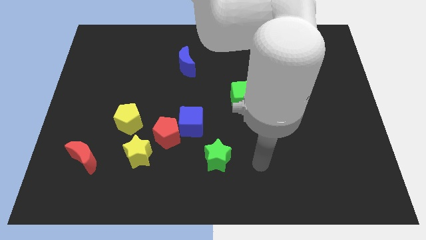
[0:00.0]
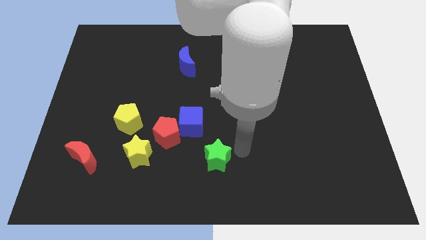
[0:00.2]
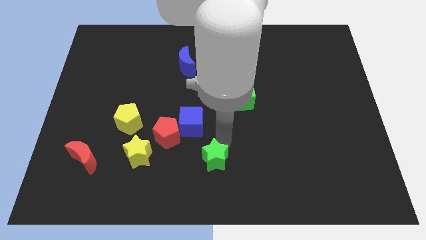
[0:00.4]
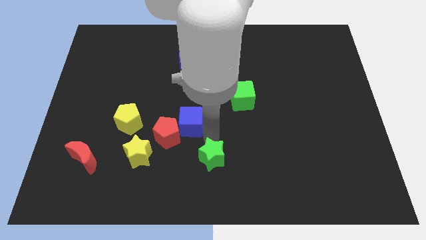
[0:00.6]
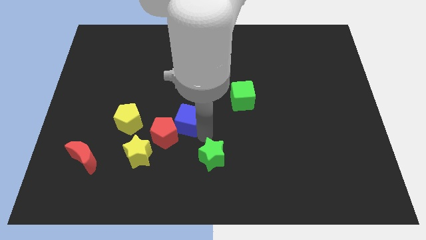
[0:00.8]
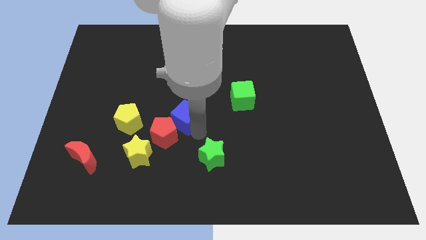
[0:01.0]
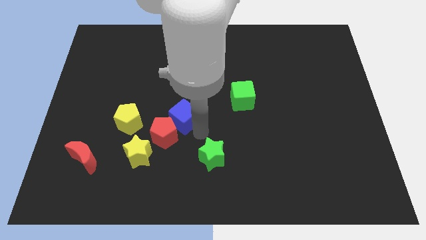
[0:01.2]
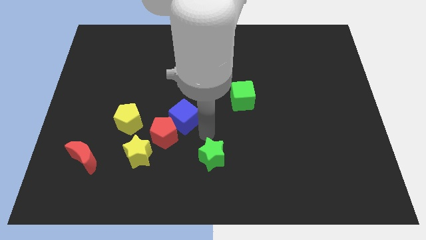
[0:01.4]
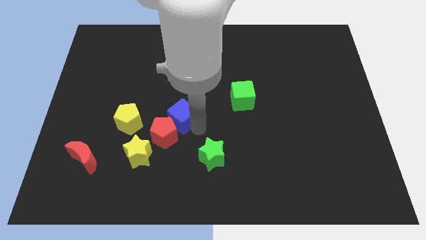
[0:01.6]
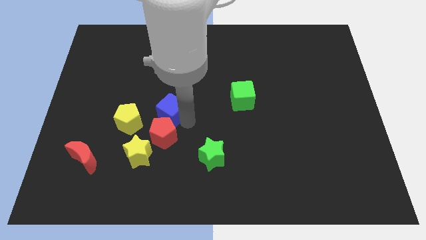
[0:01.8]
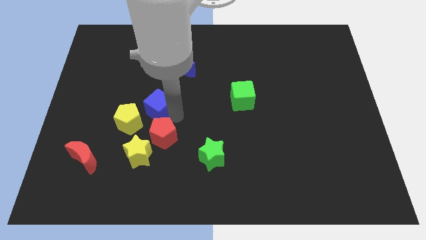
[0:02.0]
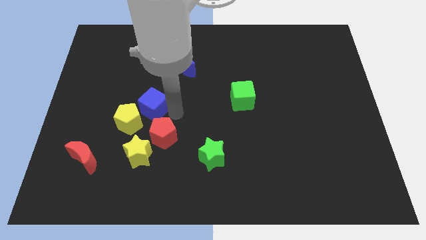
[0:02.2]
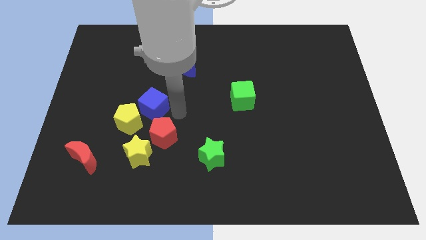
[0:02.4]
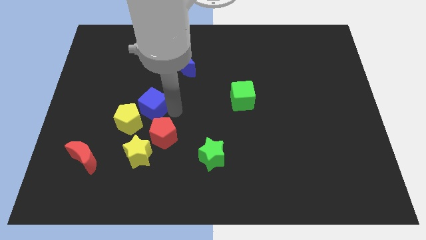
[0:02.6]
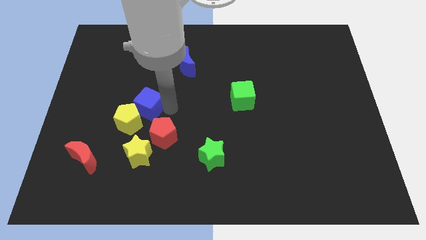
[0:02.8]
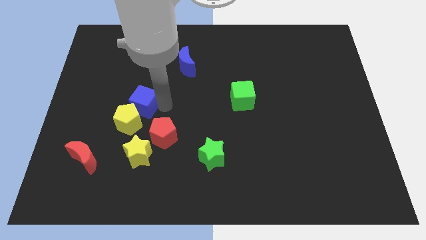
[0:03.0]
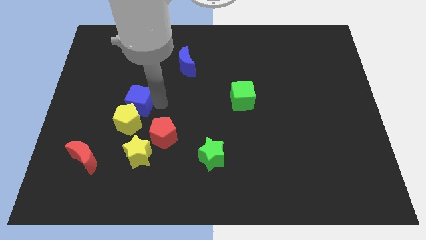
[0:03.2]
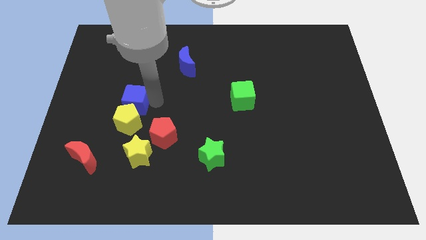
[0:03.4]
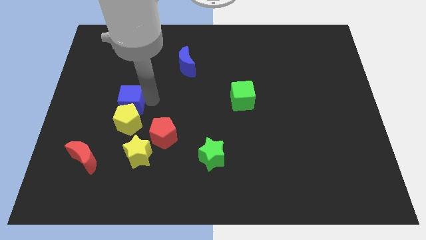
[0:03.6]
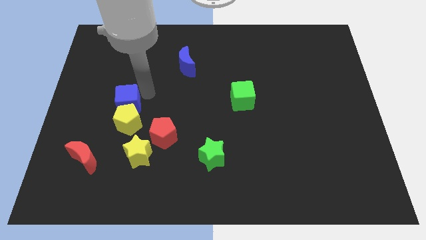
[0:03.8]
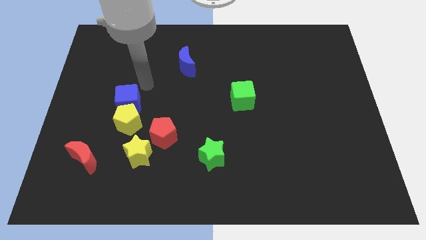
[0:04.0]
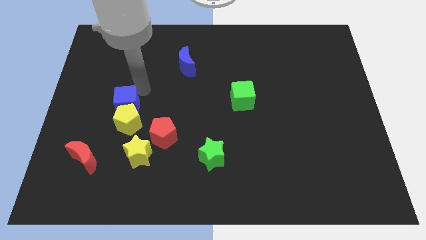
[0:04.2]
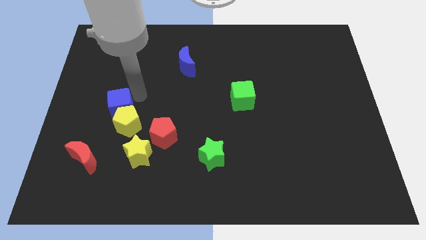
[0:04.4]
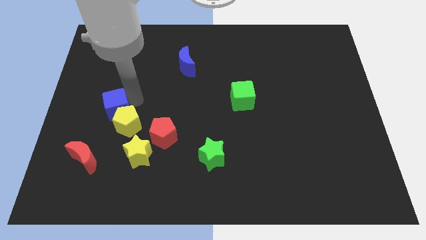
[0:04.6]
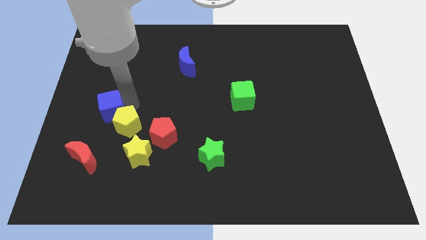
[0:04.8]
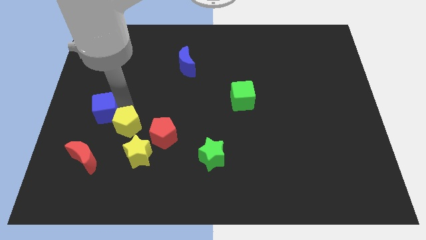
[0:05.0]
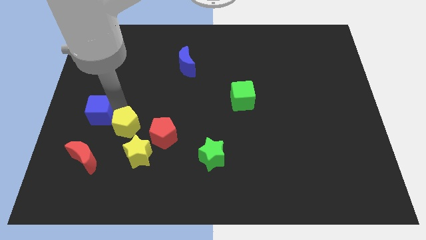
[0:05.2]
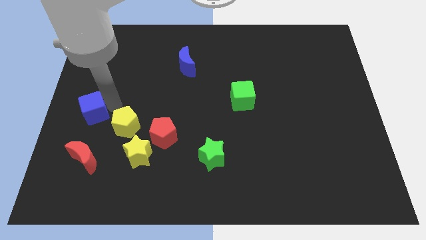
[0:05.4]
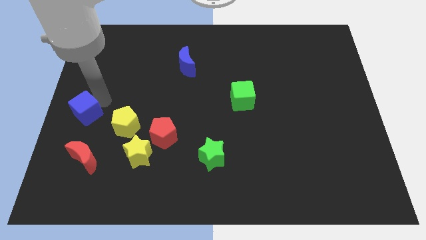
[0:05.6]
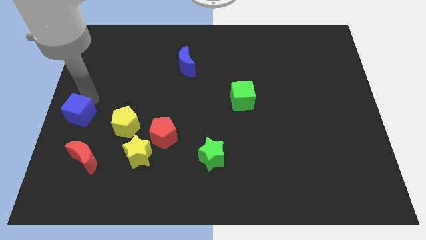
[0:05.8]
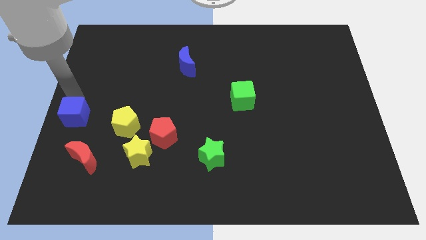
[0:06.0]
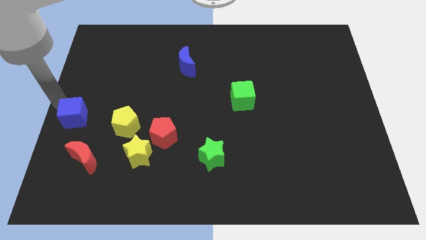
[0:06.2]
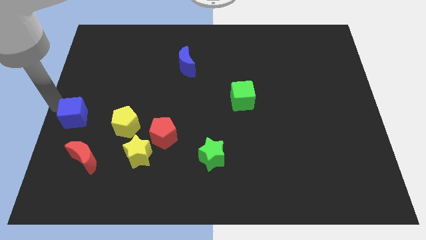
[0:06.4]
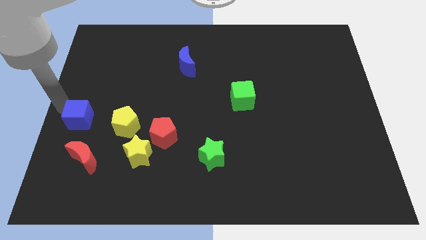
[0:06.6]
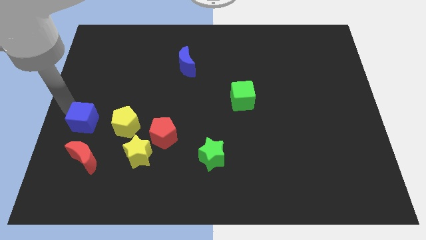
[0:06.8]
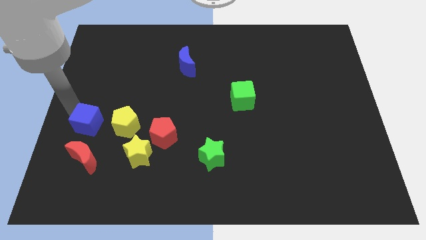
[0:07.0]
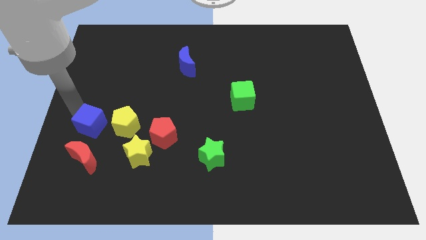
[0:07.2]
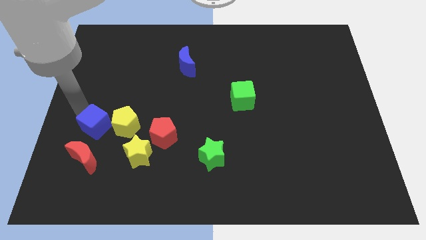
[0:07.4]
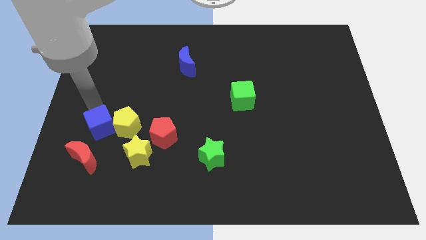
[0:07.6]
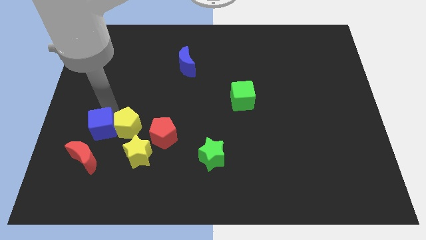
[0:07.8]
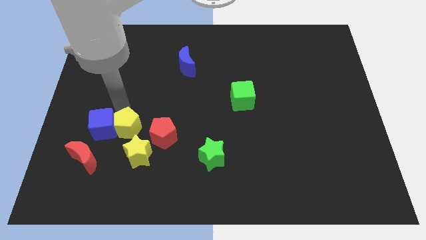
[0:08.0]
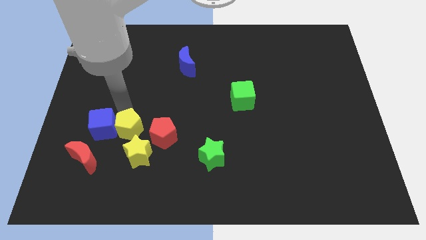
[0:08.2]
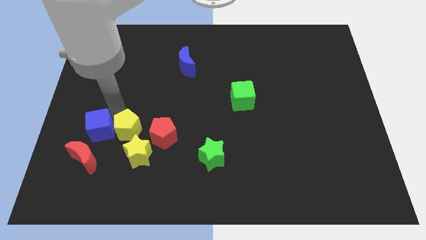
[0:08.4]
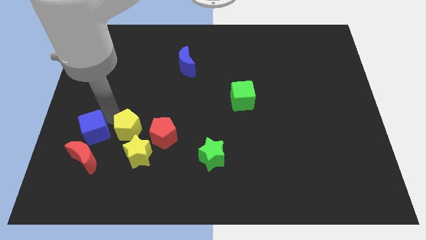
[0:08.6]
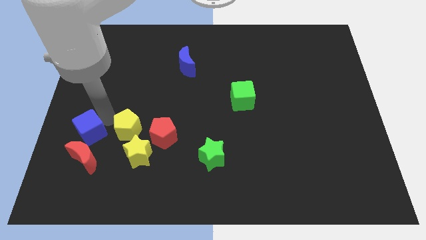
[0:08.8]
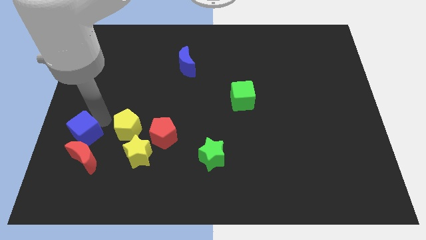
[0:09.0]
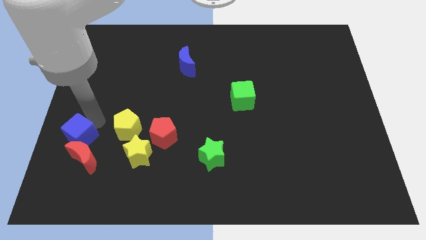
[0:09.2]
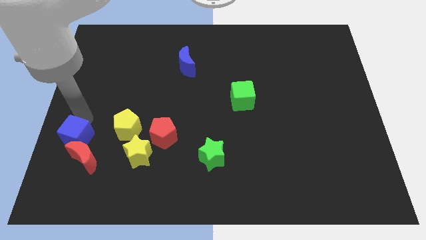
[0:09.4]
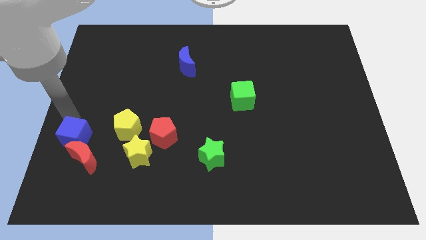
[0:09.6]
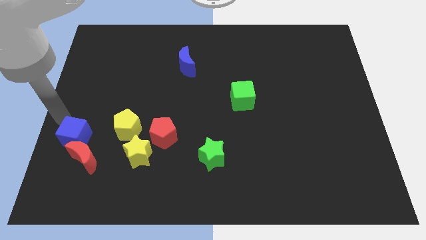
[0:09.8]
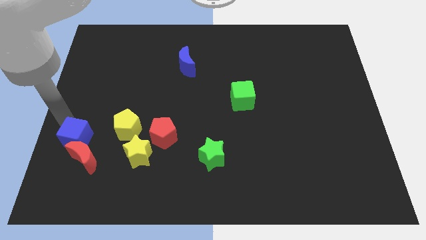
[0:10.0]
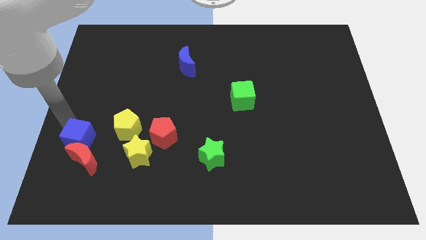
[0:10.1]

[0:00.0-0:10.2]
slide the blue cube to the left of the yellow star

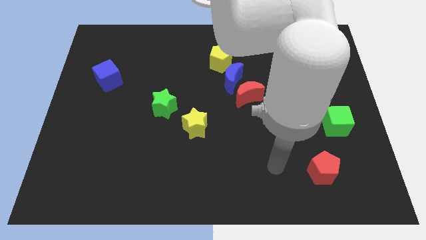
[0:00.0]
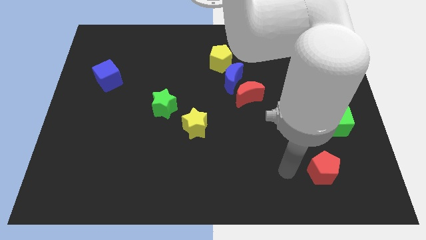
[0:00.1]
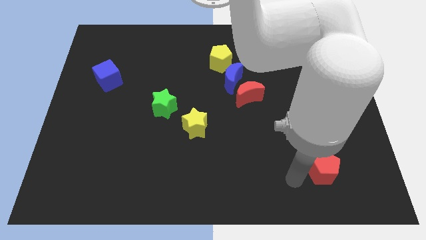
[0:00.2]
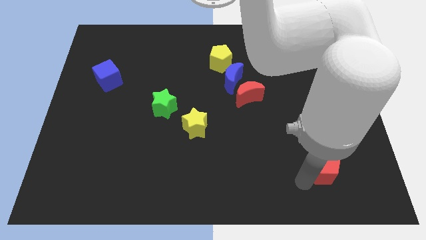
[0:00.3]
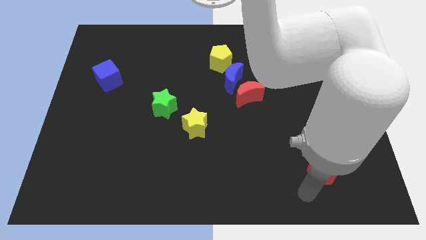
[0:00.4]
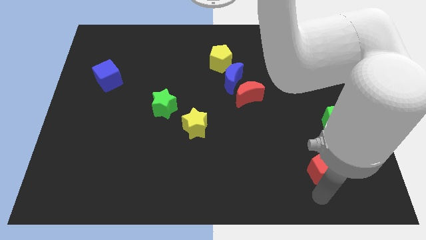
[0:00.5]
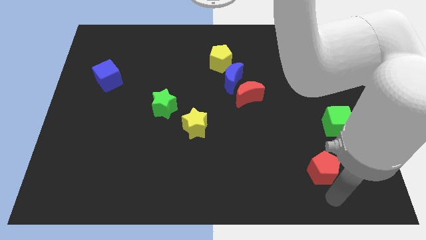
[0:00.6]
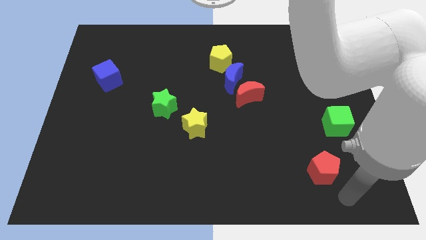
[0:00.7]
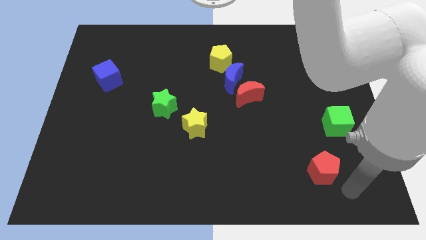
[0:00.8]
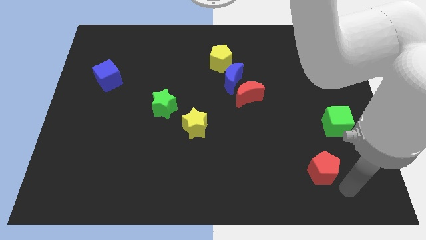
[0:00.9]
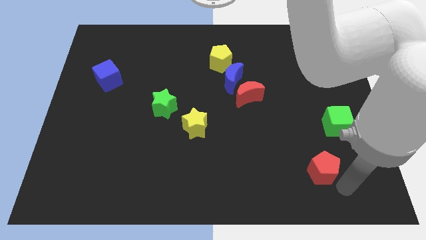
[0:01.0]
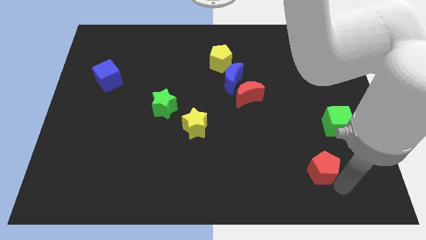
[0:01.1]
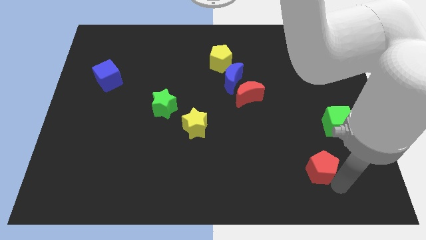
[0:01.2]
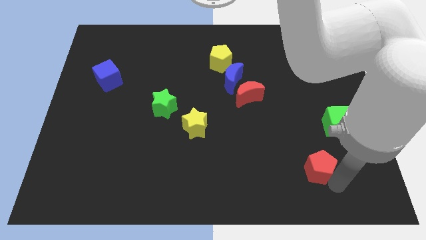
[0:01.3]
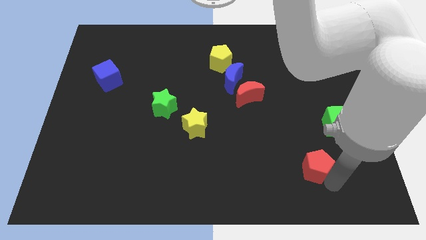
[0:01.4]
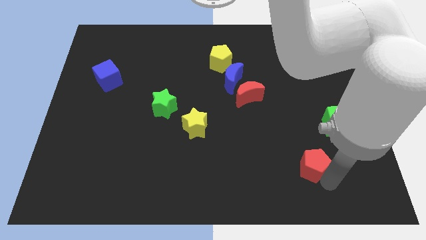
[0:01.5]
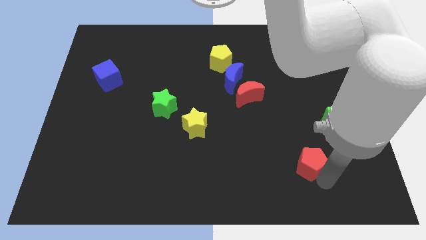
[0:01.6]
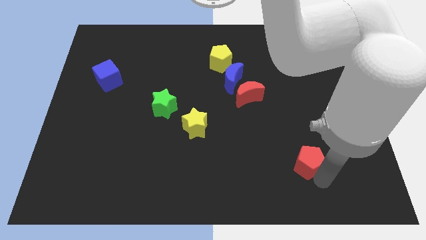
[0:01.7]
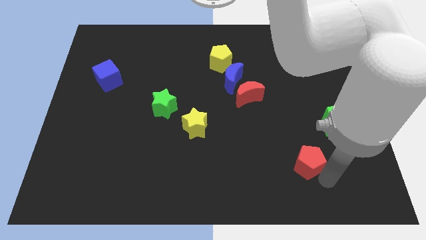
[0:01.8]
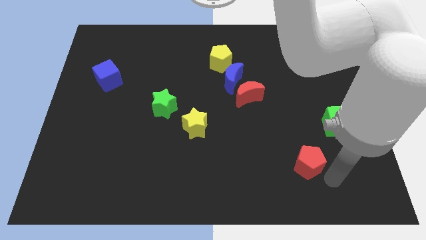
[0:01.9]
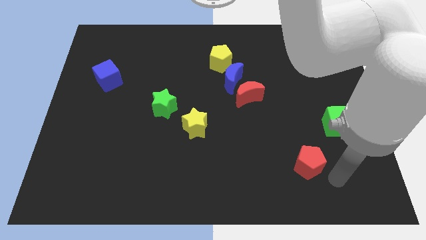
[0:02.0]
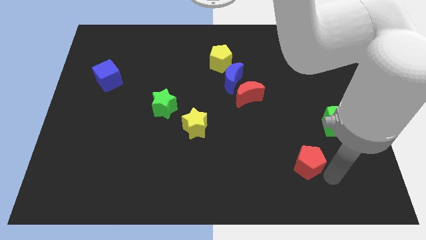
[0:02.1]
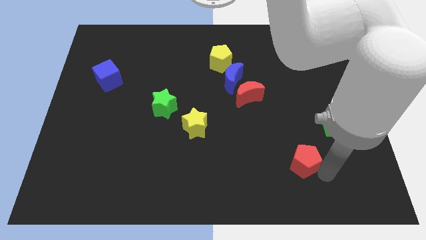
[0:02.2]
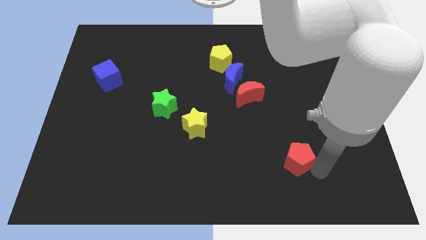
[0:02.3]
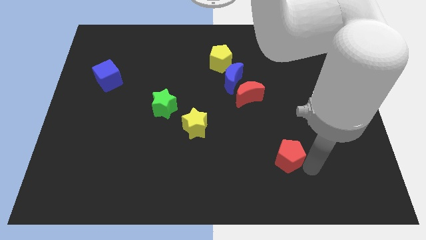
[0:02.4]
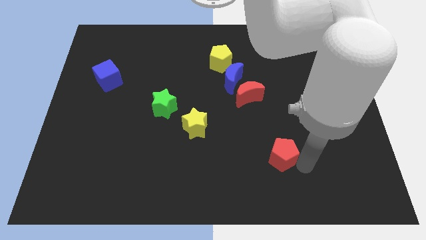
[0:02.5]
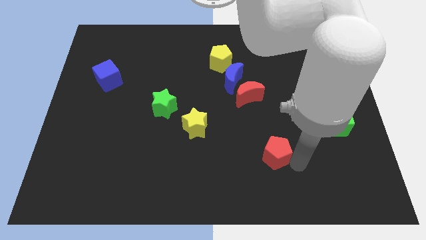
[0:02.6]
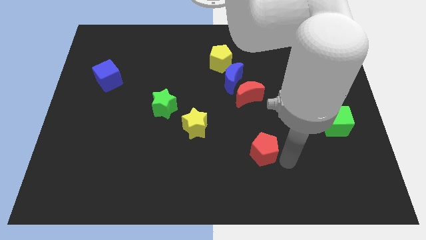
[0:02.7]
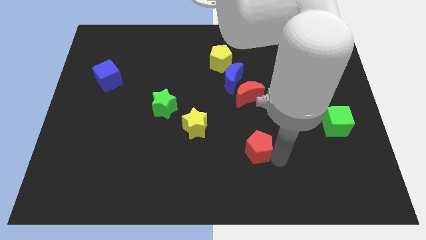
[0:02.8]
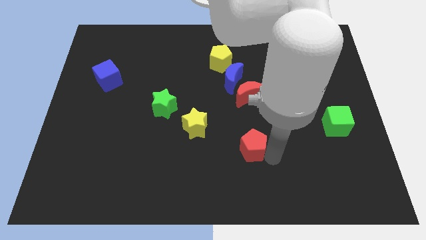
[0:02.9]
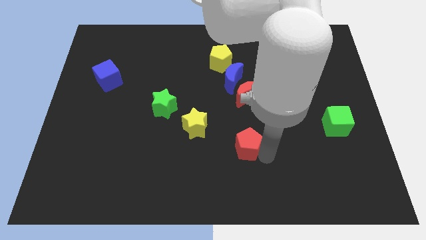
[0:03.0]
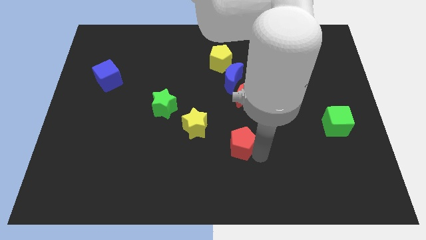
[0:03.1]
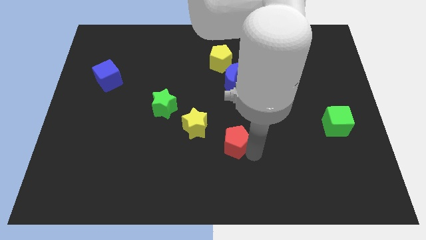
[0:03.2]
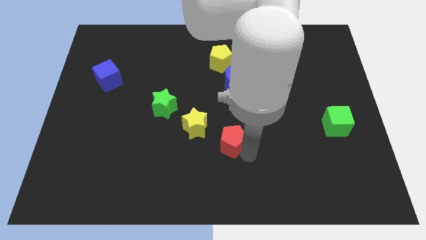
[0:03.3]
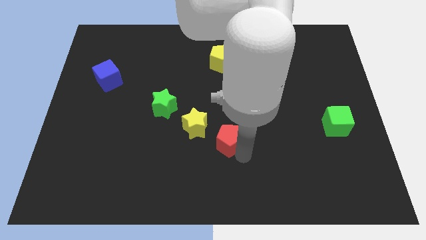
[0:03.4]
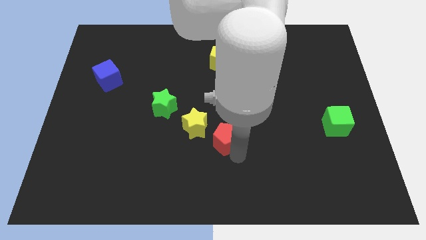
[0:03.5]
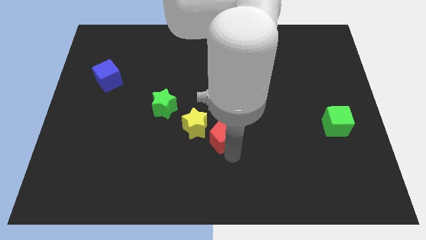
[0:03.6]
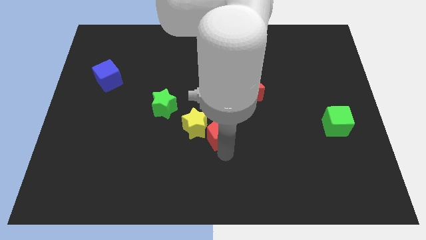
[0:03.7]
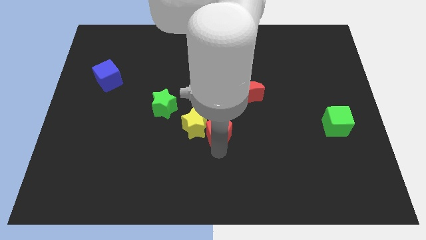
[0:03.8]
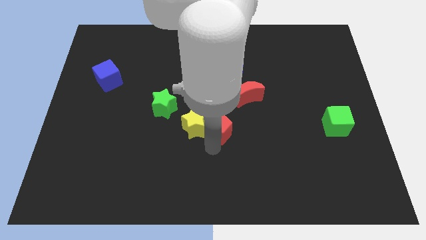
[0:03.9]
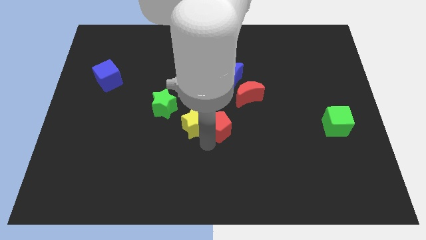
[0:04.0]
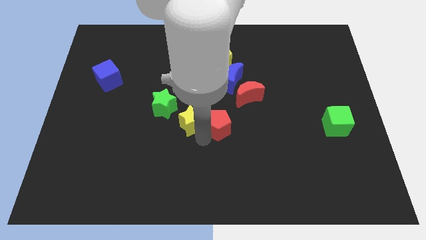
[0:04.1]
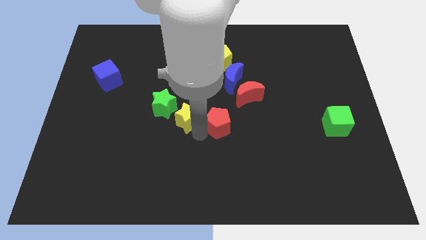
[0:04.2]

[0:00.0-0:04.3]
slide the red pentagon to the right of the green star
